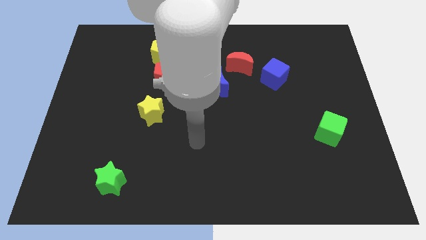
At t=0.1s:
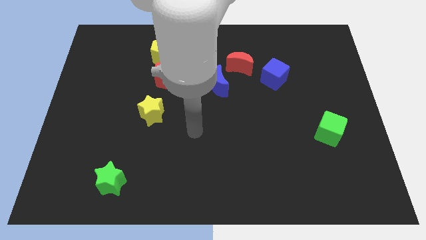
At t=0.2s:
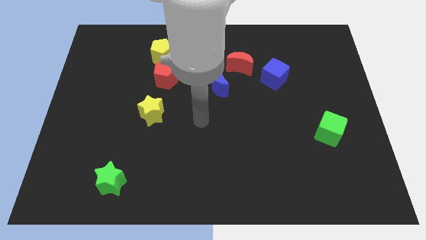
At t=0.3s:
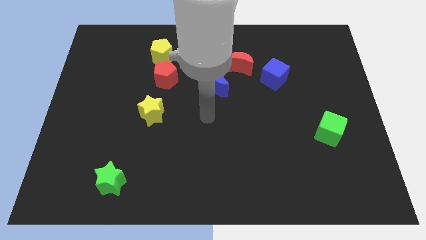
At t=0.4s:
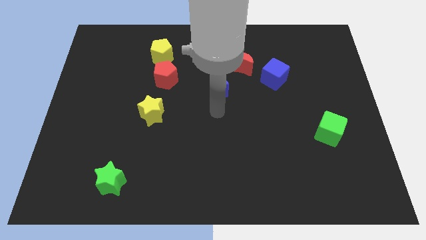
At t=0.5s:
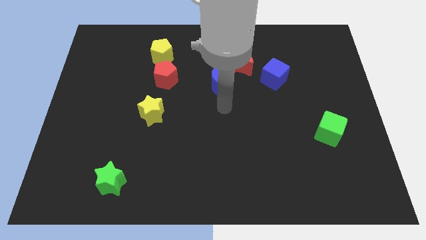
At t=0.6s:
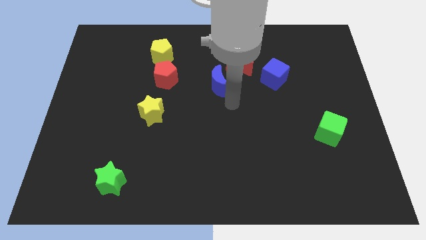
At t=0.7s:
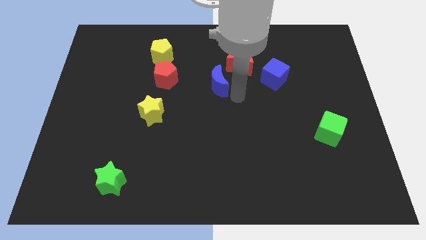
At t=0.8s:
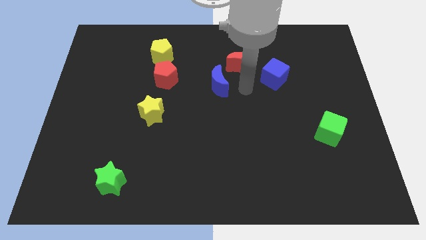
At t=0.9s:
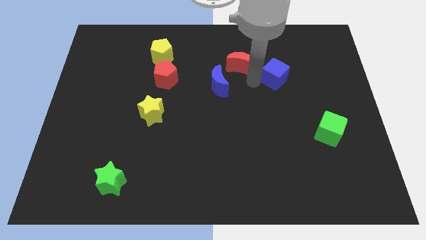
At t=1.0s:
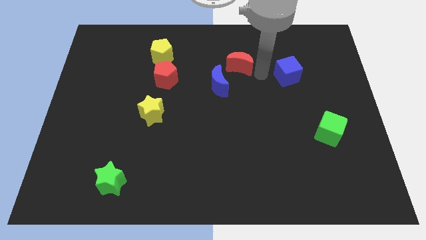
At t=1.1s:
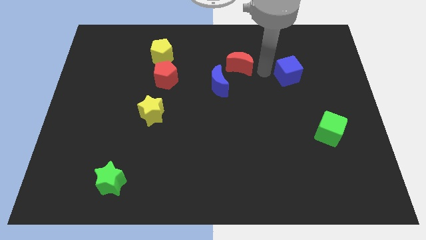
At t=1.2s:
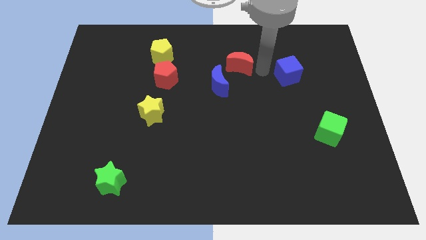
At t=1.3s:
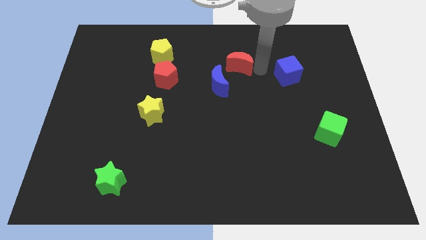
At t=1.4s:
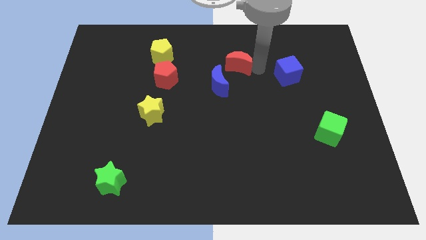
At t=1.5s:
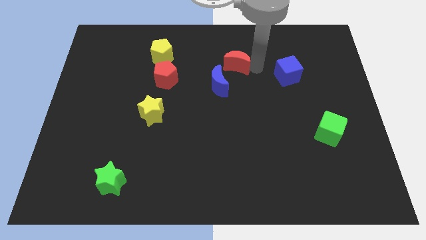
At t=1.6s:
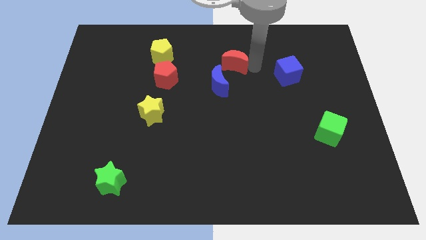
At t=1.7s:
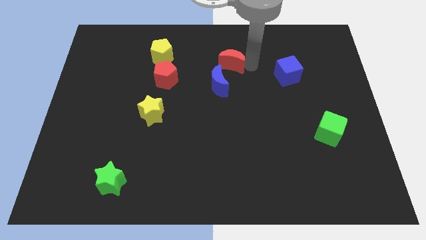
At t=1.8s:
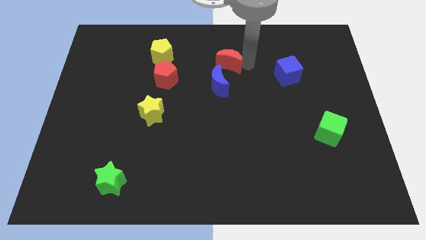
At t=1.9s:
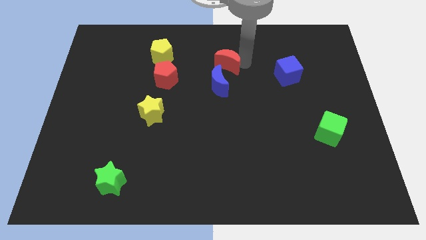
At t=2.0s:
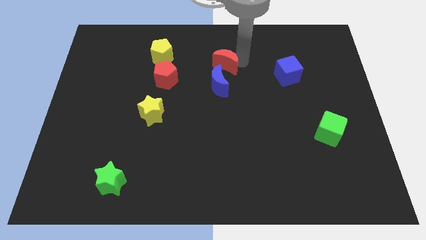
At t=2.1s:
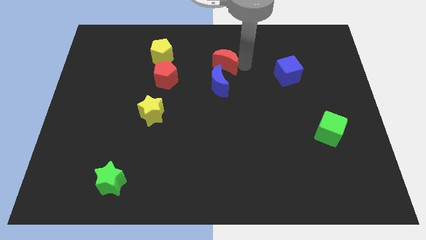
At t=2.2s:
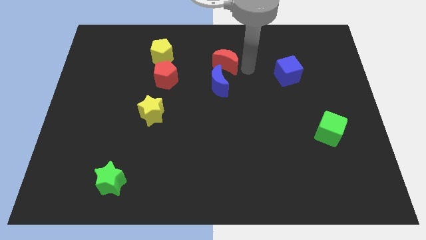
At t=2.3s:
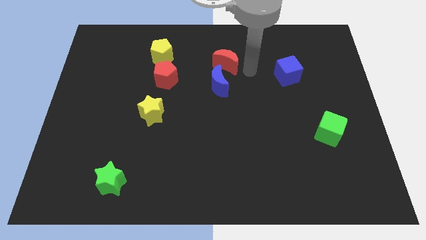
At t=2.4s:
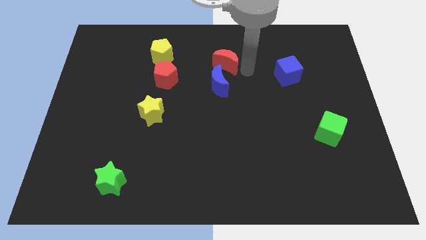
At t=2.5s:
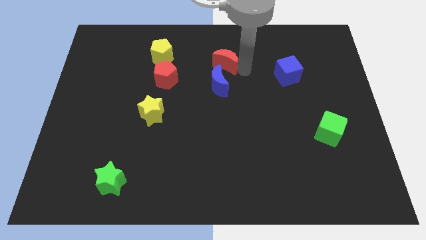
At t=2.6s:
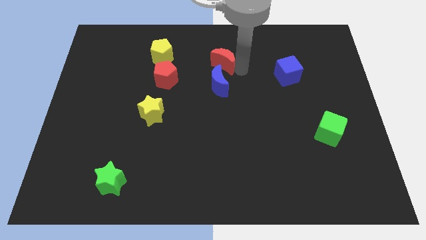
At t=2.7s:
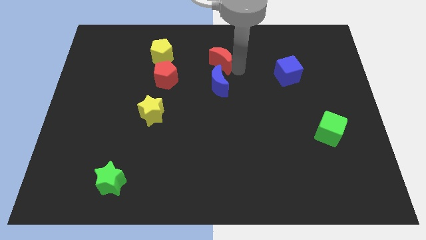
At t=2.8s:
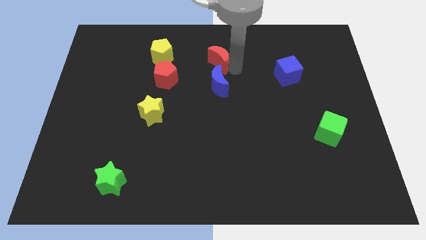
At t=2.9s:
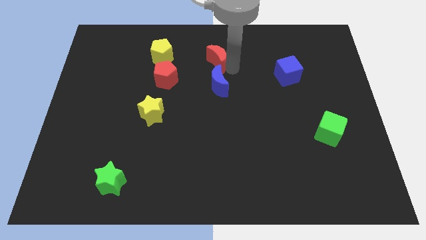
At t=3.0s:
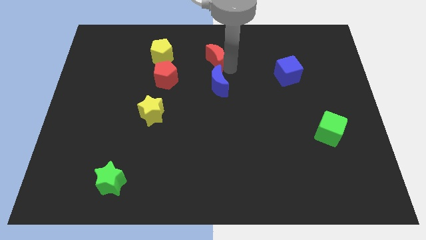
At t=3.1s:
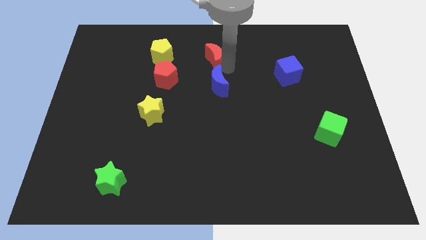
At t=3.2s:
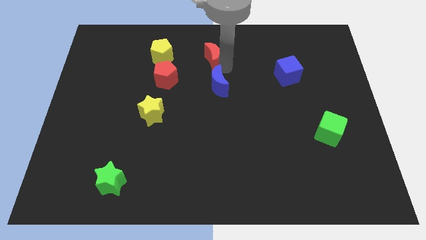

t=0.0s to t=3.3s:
push the red moon a little left

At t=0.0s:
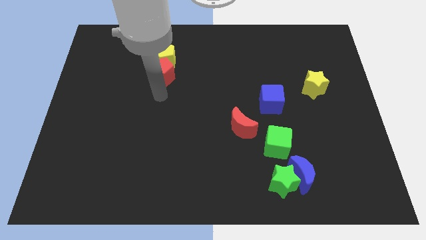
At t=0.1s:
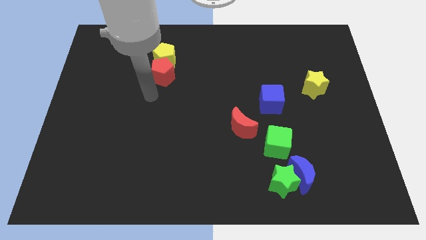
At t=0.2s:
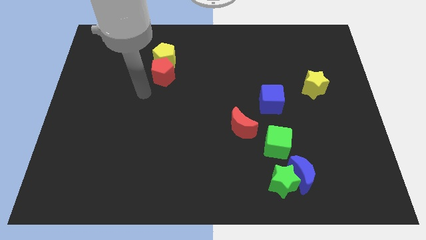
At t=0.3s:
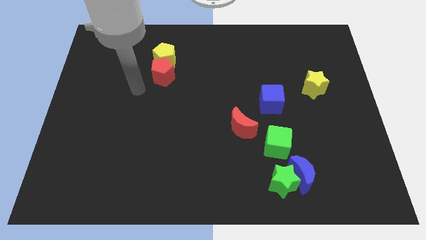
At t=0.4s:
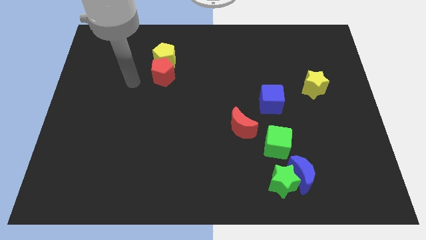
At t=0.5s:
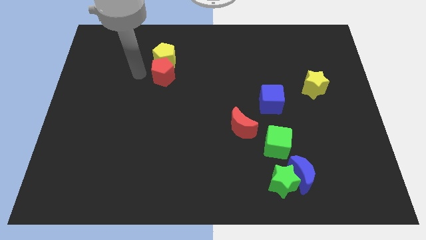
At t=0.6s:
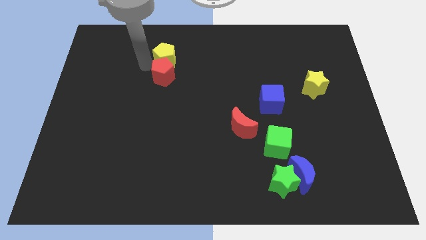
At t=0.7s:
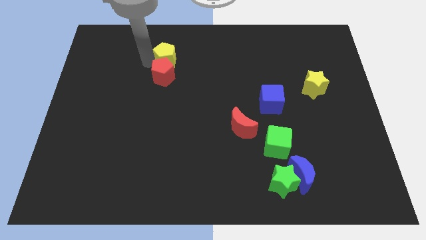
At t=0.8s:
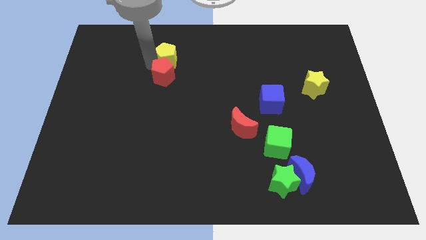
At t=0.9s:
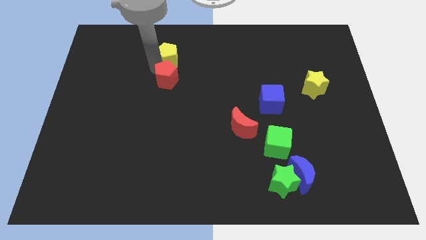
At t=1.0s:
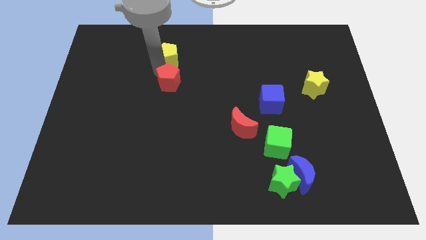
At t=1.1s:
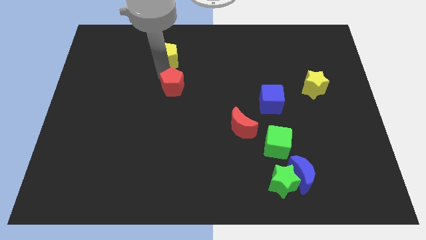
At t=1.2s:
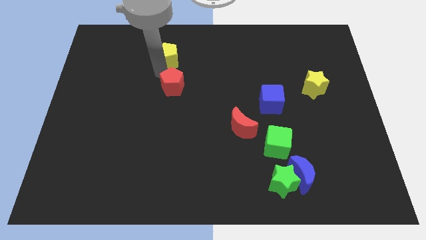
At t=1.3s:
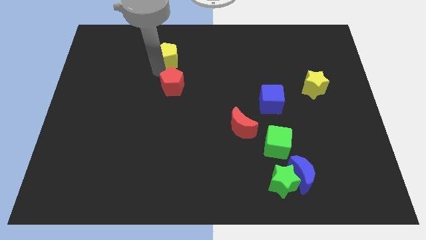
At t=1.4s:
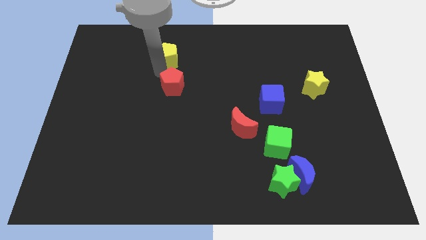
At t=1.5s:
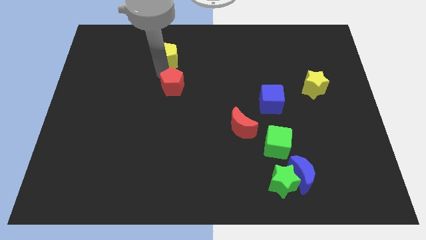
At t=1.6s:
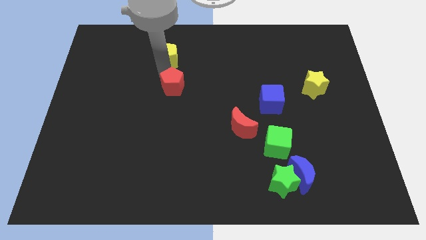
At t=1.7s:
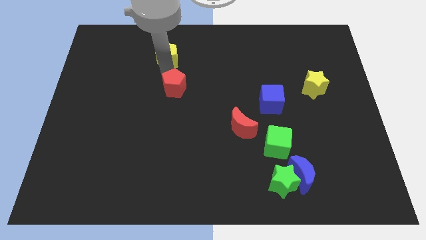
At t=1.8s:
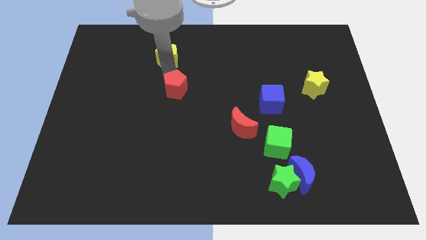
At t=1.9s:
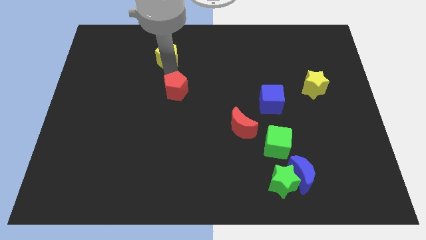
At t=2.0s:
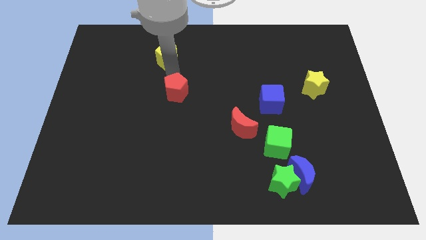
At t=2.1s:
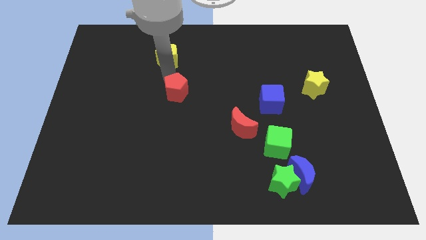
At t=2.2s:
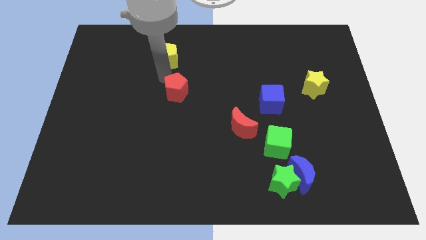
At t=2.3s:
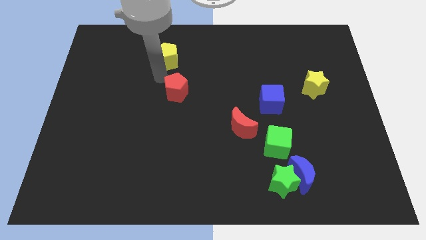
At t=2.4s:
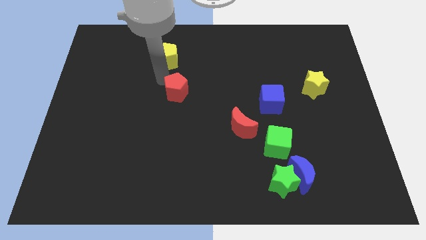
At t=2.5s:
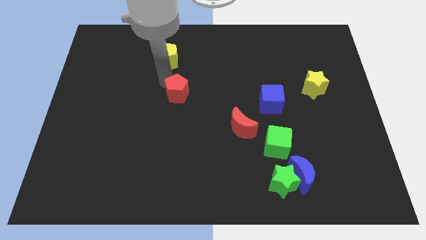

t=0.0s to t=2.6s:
push the red pentagon a bit down and then right

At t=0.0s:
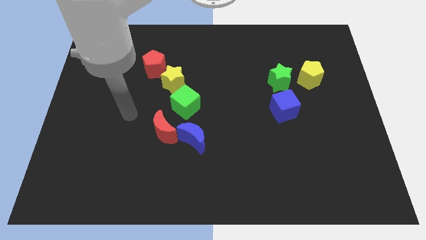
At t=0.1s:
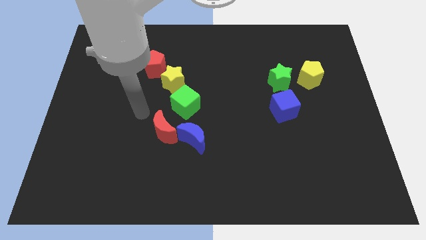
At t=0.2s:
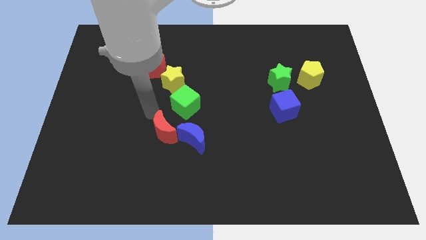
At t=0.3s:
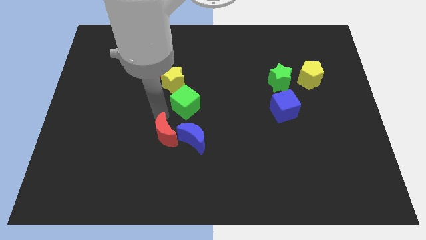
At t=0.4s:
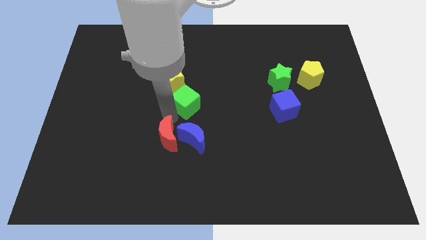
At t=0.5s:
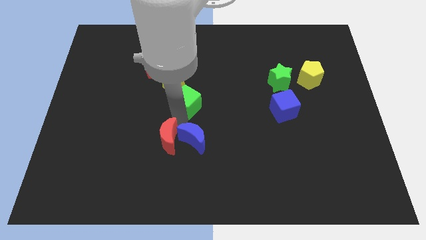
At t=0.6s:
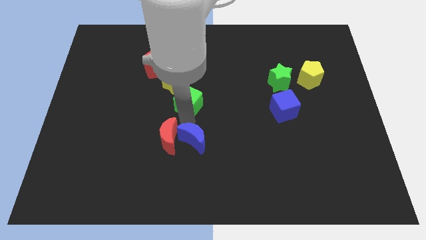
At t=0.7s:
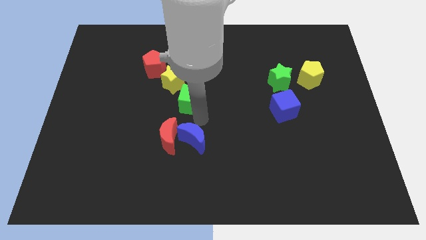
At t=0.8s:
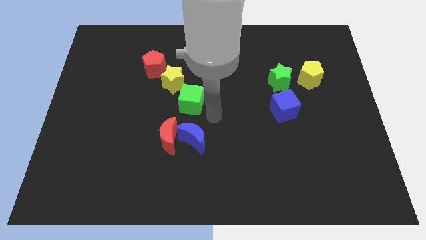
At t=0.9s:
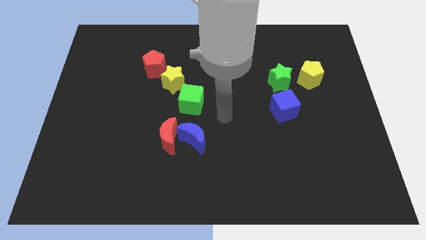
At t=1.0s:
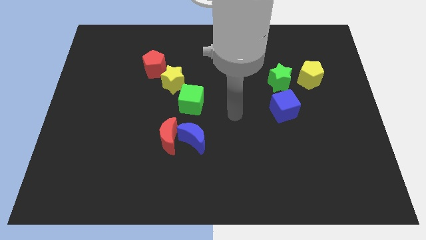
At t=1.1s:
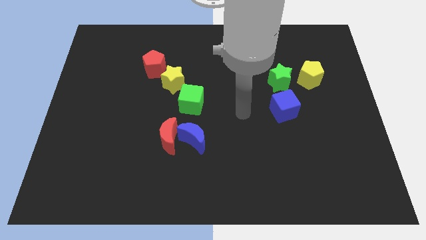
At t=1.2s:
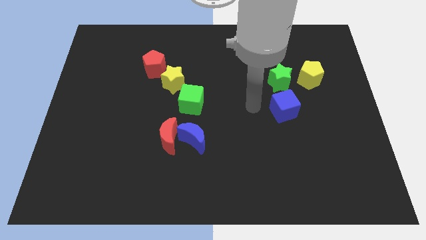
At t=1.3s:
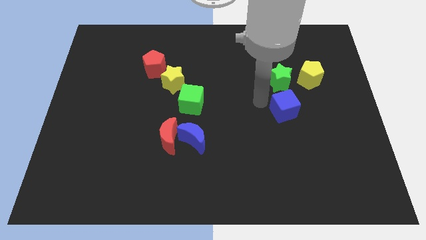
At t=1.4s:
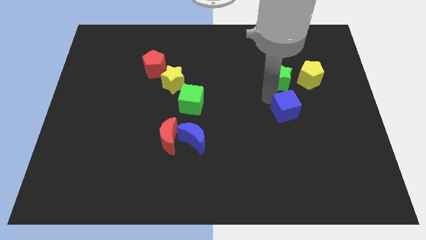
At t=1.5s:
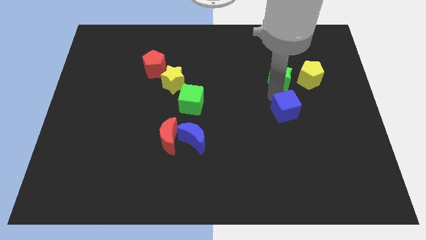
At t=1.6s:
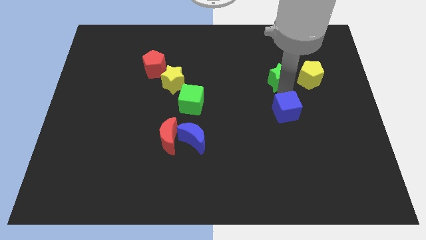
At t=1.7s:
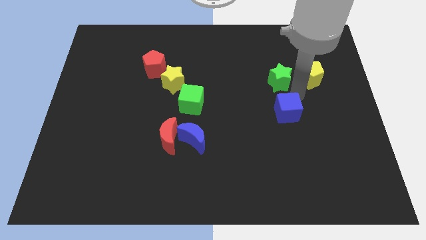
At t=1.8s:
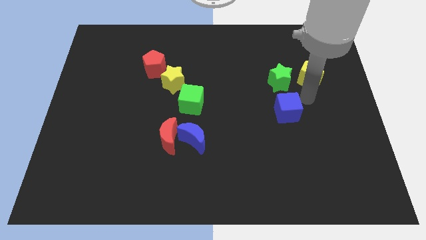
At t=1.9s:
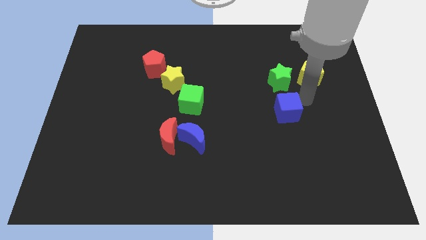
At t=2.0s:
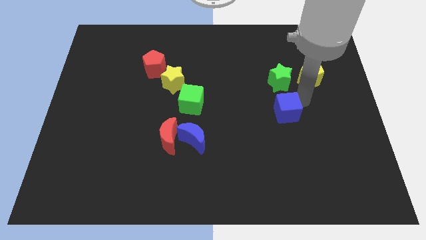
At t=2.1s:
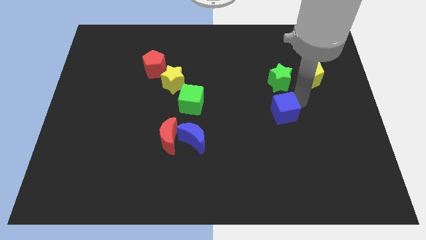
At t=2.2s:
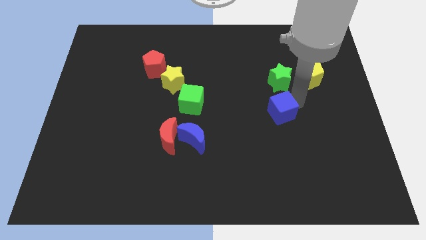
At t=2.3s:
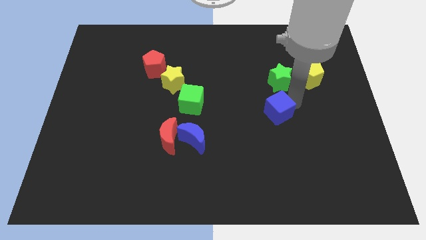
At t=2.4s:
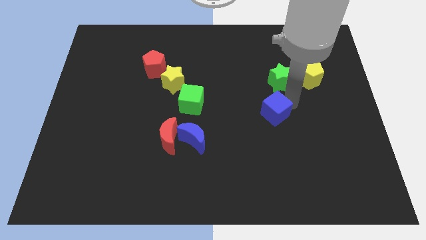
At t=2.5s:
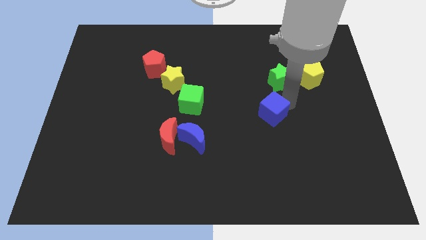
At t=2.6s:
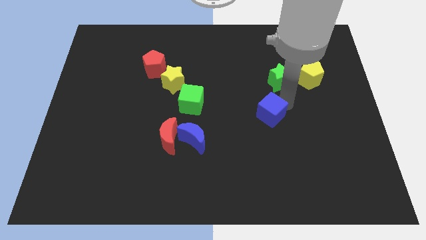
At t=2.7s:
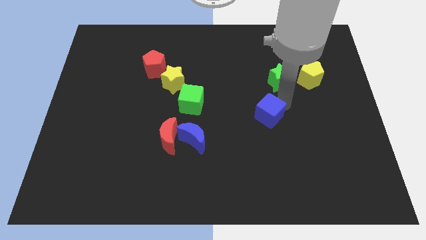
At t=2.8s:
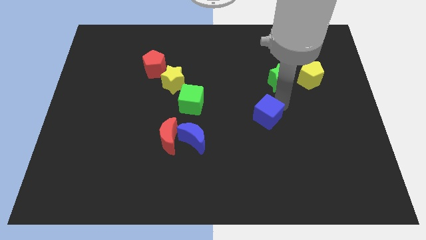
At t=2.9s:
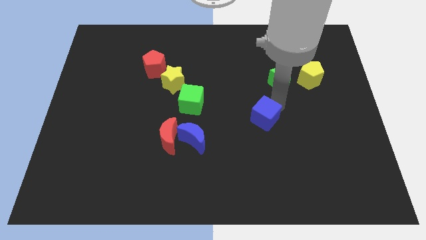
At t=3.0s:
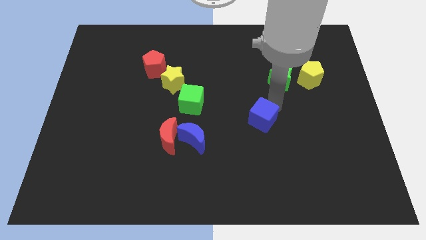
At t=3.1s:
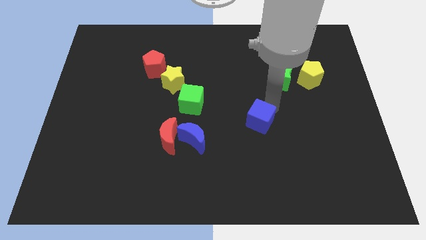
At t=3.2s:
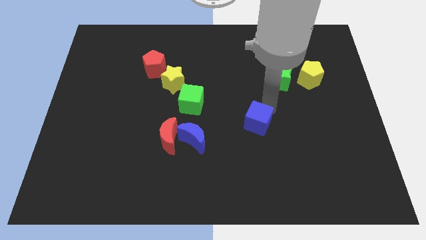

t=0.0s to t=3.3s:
slightly slide the blue cube downwards and left
